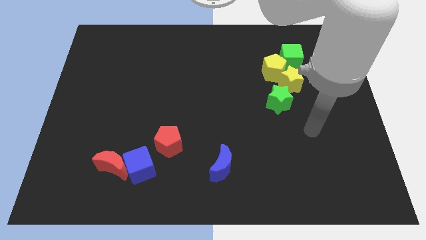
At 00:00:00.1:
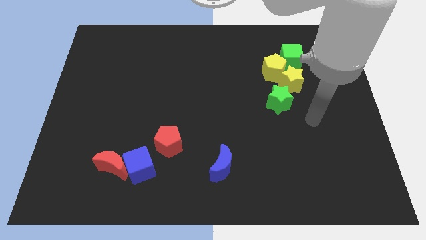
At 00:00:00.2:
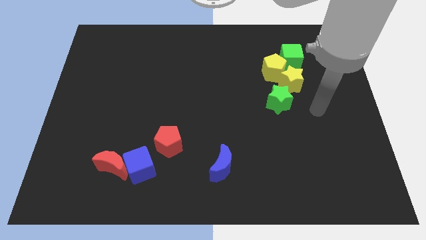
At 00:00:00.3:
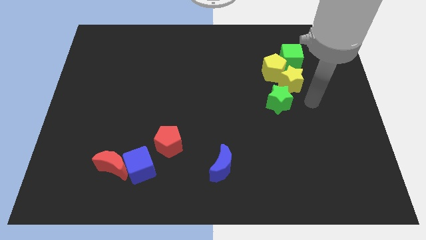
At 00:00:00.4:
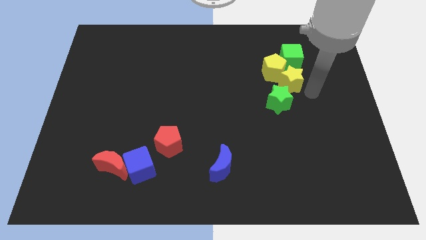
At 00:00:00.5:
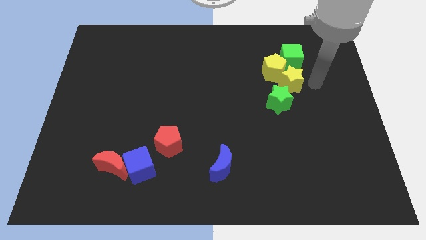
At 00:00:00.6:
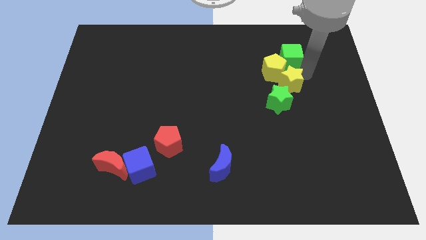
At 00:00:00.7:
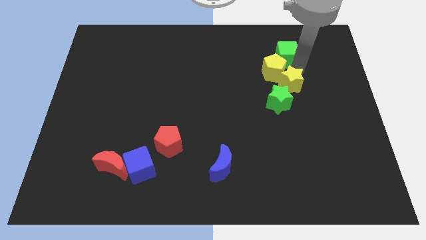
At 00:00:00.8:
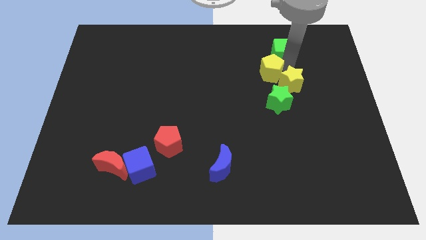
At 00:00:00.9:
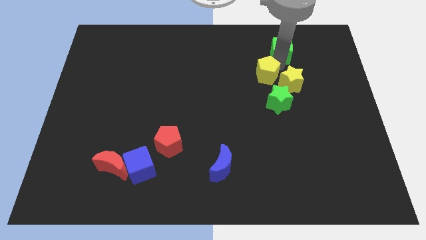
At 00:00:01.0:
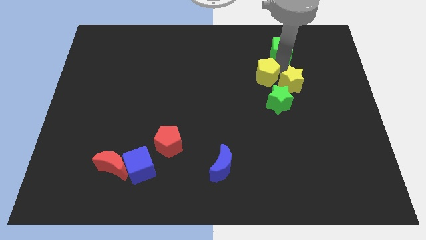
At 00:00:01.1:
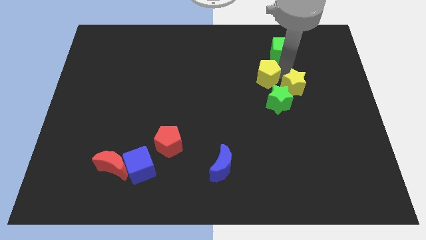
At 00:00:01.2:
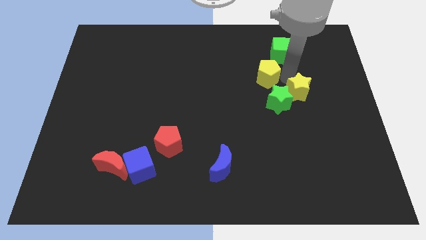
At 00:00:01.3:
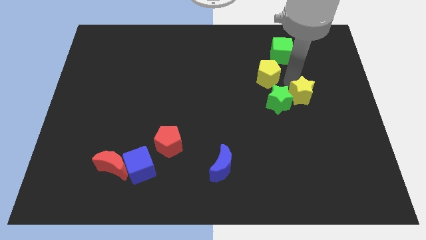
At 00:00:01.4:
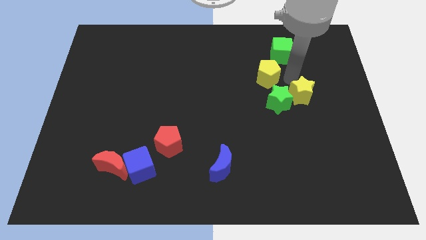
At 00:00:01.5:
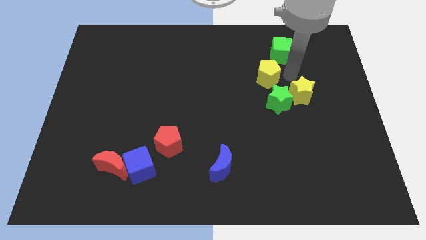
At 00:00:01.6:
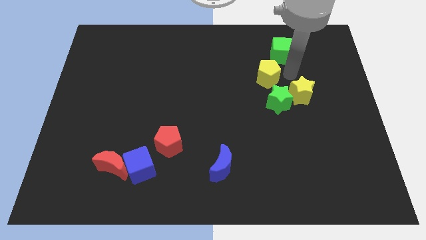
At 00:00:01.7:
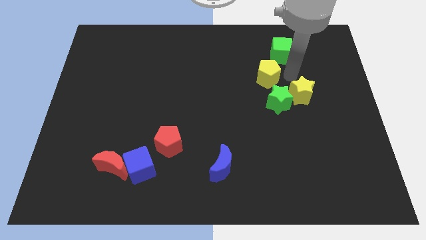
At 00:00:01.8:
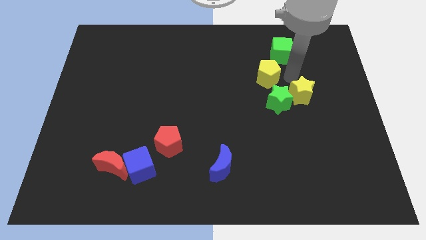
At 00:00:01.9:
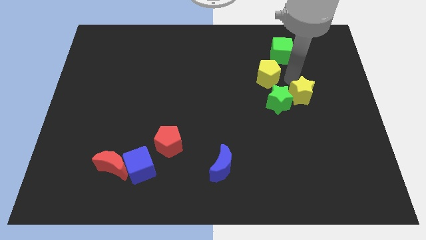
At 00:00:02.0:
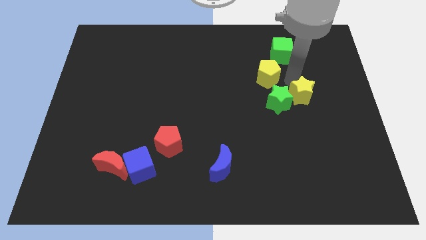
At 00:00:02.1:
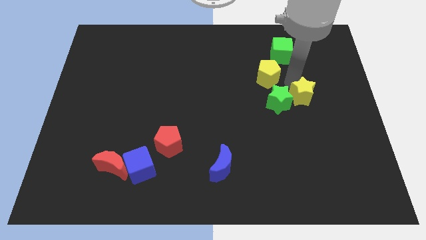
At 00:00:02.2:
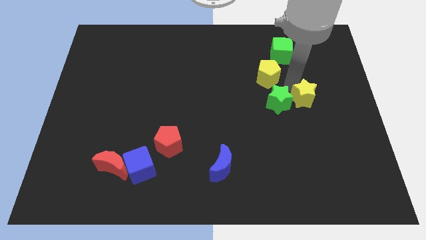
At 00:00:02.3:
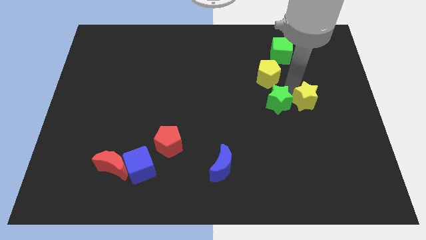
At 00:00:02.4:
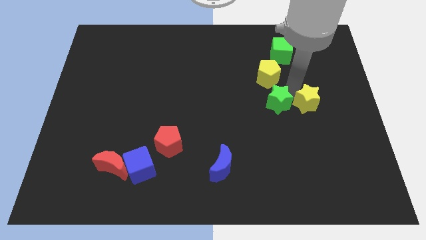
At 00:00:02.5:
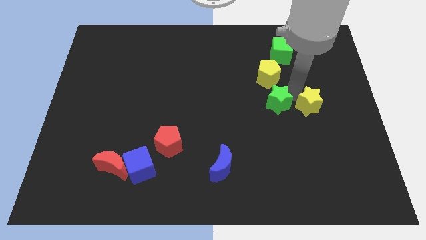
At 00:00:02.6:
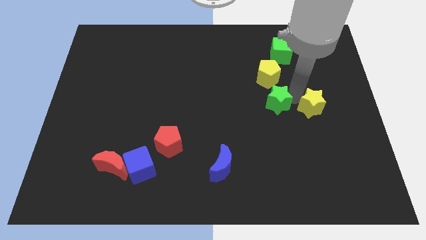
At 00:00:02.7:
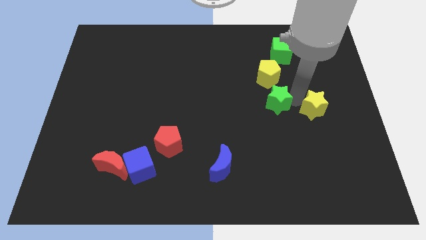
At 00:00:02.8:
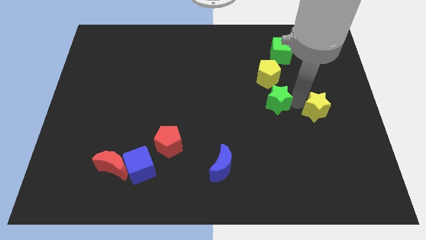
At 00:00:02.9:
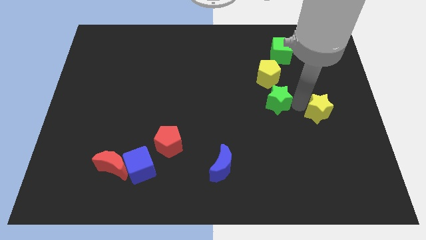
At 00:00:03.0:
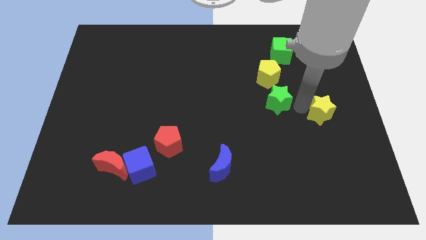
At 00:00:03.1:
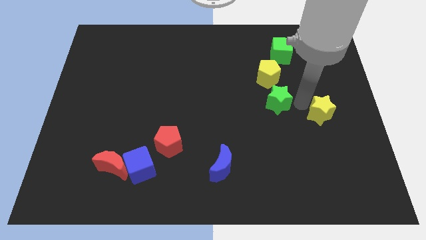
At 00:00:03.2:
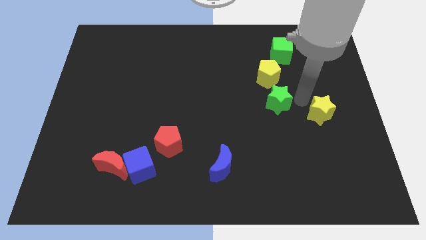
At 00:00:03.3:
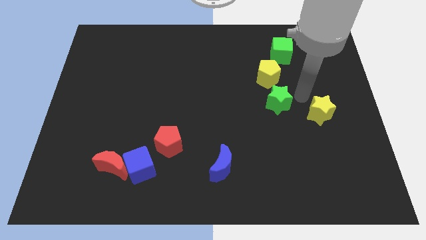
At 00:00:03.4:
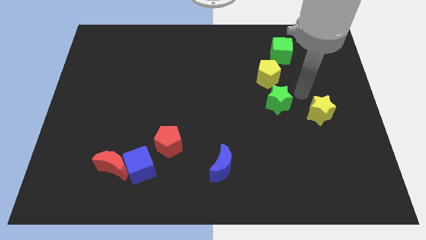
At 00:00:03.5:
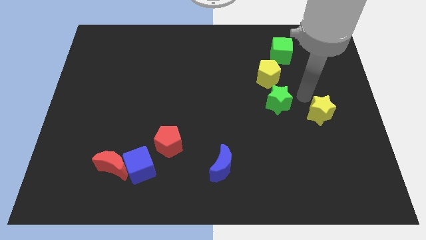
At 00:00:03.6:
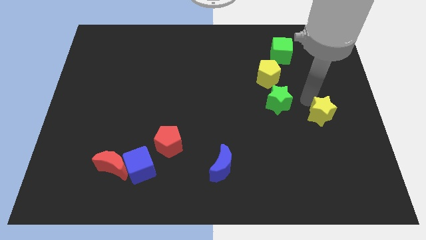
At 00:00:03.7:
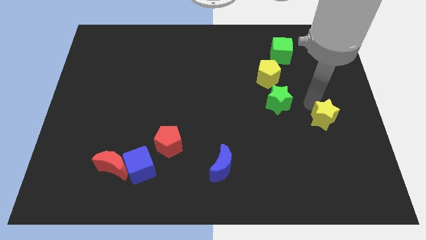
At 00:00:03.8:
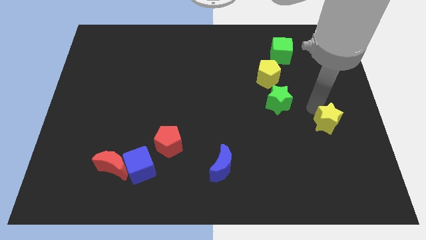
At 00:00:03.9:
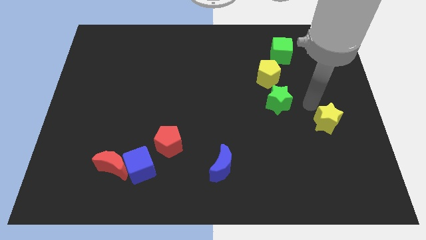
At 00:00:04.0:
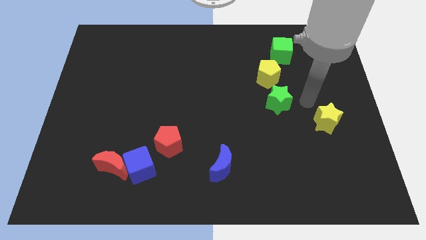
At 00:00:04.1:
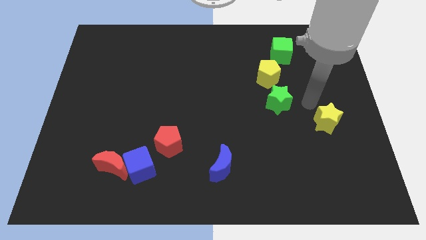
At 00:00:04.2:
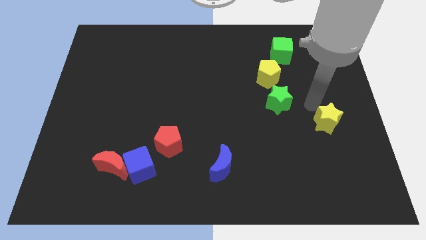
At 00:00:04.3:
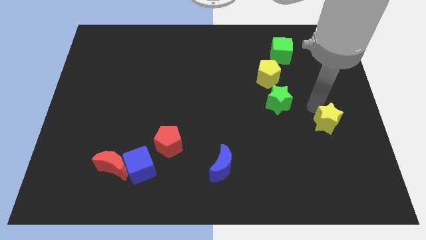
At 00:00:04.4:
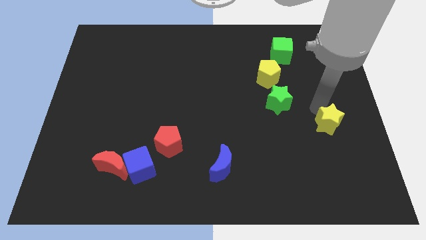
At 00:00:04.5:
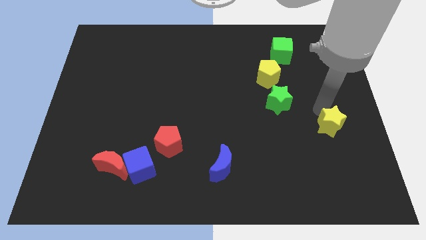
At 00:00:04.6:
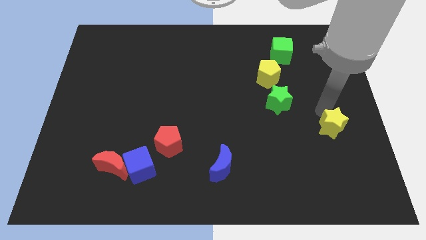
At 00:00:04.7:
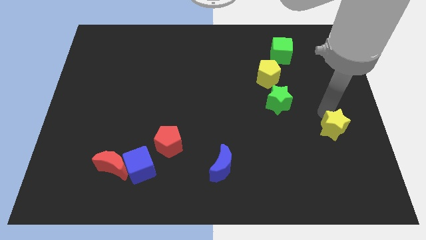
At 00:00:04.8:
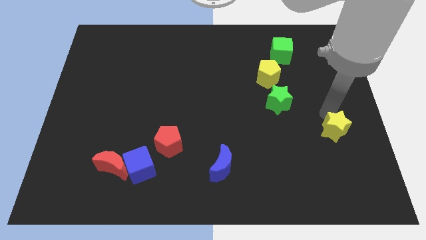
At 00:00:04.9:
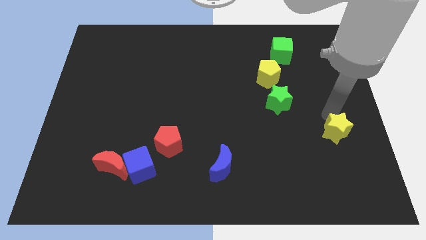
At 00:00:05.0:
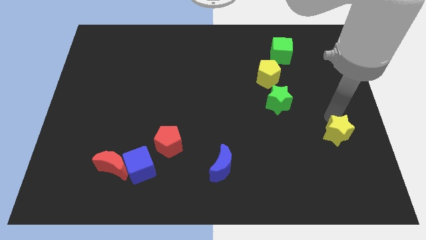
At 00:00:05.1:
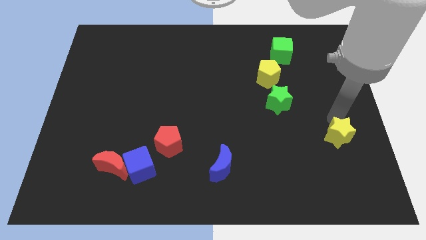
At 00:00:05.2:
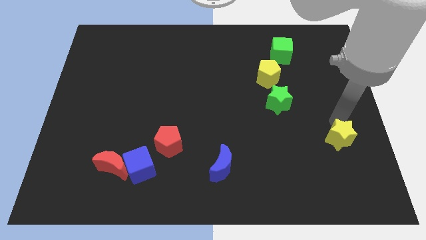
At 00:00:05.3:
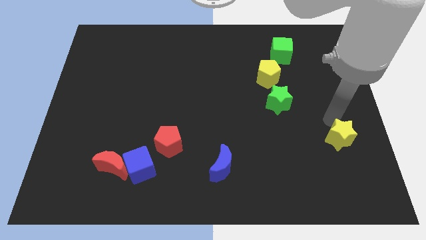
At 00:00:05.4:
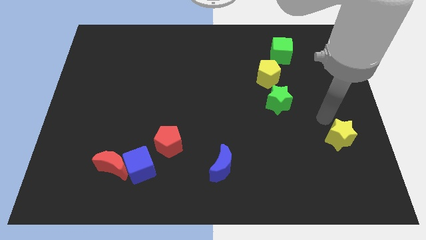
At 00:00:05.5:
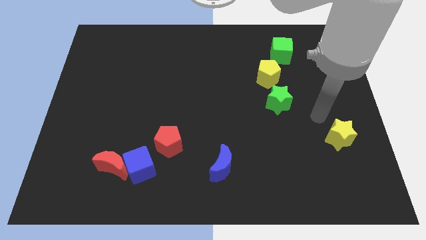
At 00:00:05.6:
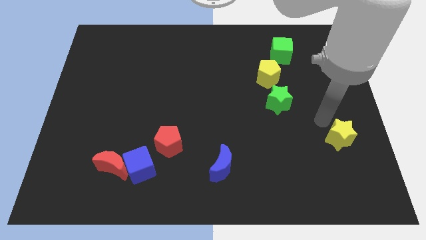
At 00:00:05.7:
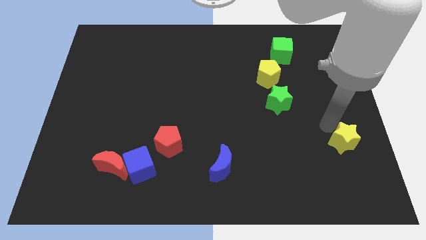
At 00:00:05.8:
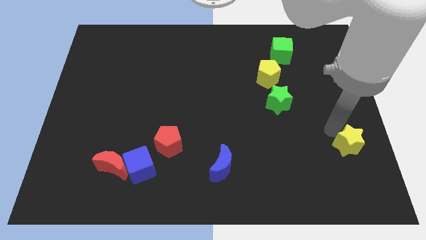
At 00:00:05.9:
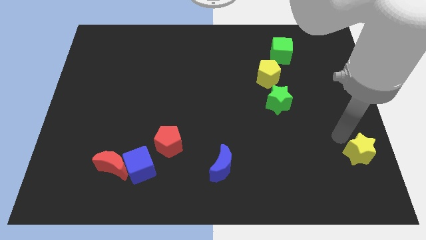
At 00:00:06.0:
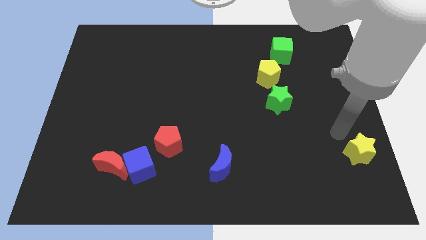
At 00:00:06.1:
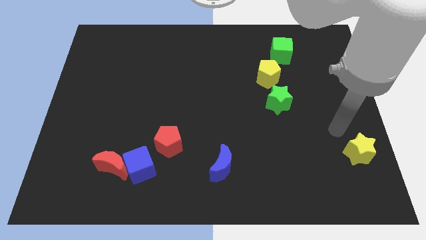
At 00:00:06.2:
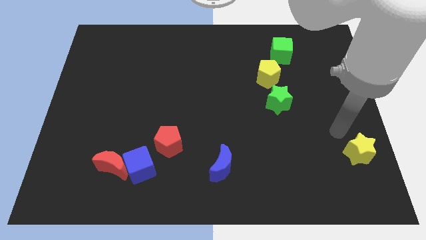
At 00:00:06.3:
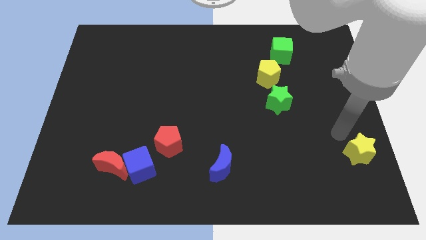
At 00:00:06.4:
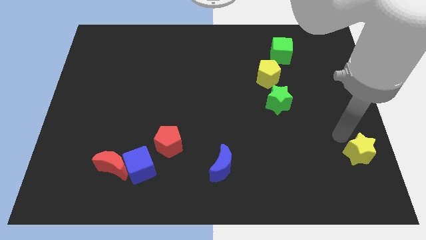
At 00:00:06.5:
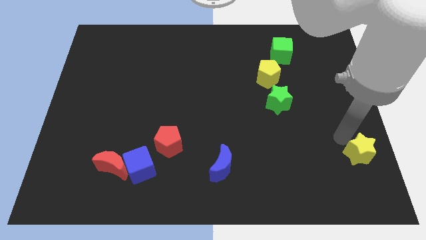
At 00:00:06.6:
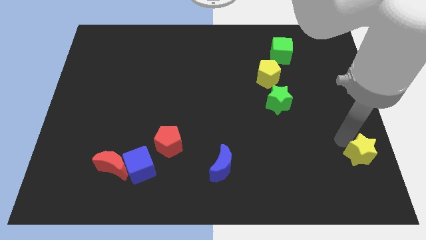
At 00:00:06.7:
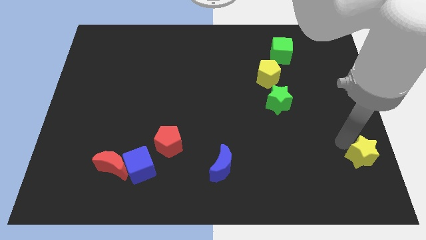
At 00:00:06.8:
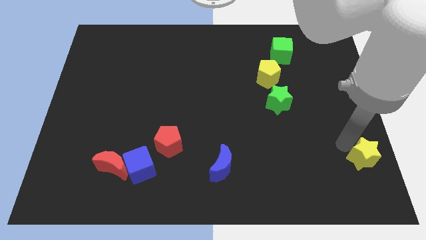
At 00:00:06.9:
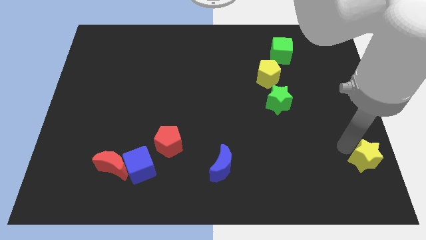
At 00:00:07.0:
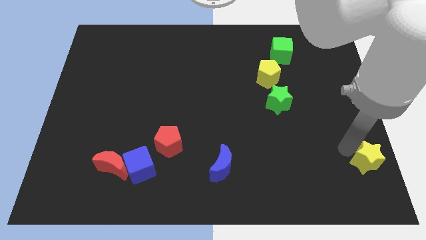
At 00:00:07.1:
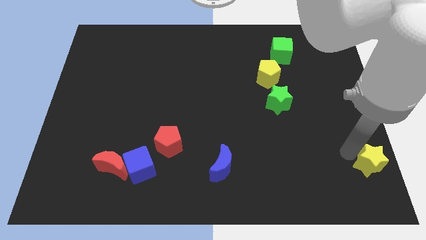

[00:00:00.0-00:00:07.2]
put the yellow star to the bottom right corner
